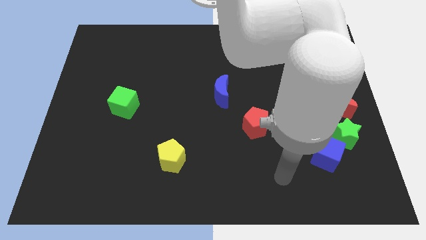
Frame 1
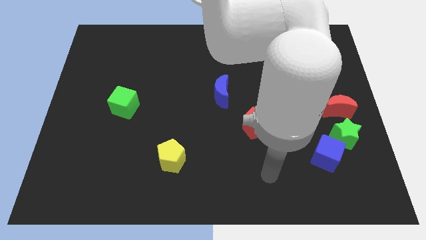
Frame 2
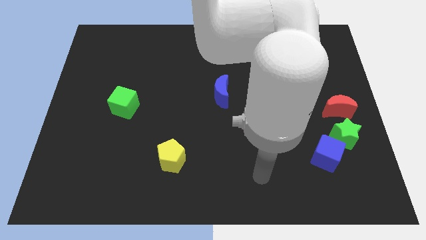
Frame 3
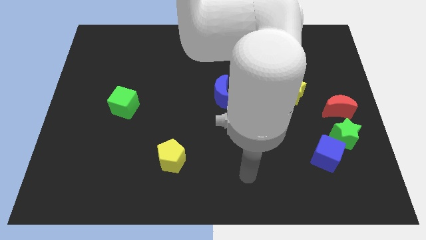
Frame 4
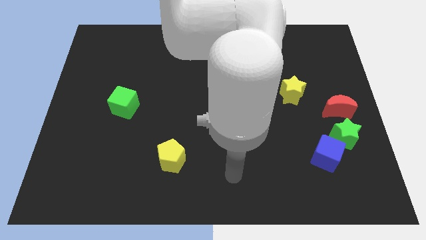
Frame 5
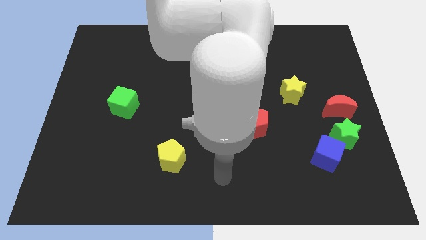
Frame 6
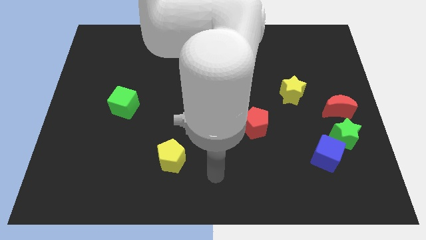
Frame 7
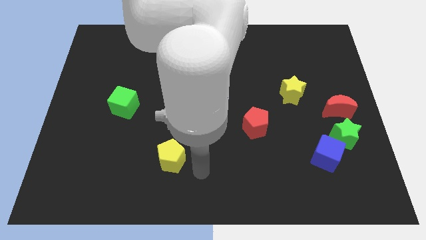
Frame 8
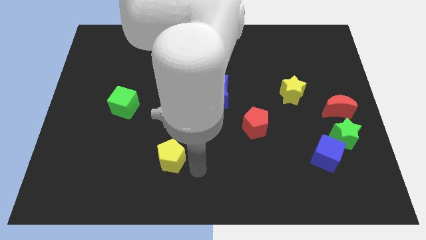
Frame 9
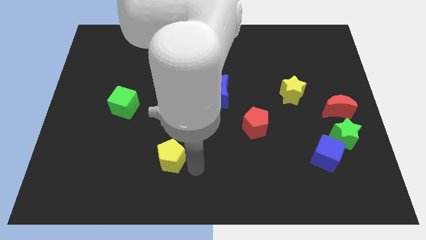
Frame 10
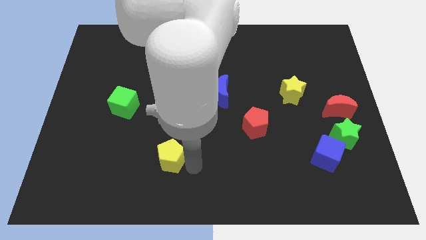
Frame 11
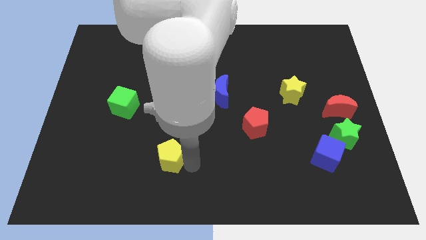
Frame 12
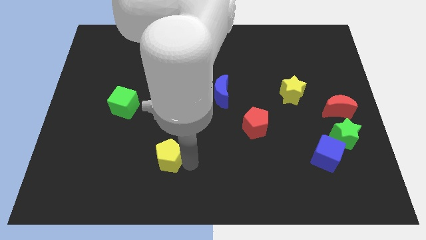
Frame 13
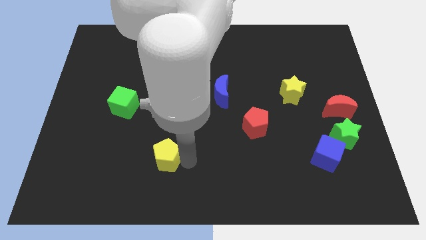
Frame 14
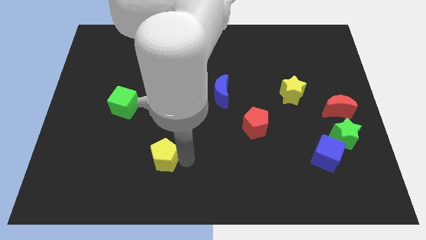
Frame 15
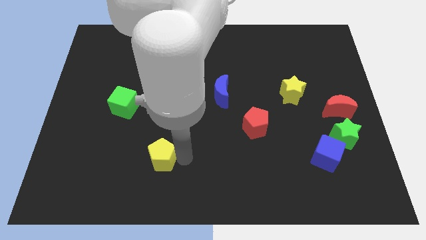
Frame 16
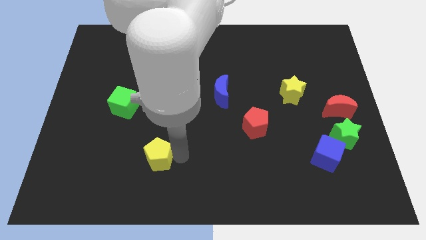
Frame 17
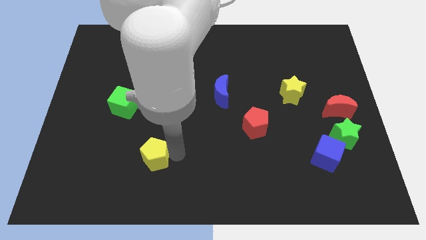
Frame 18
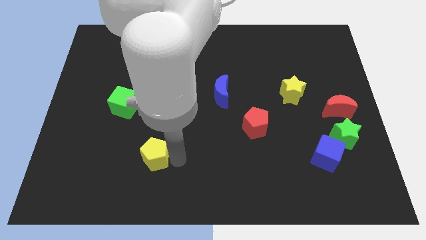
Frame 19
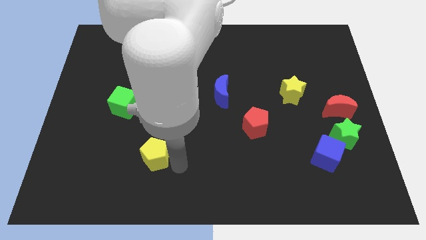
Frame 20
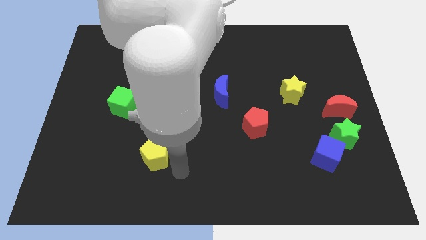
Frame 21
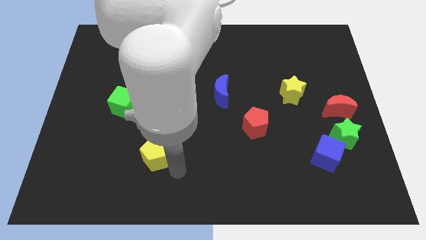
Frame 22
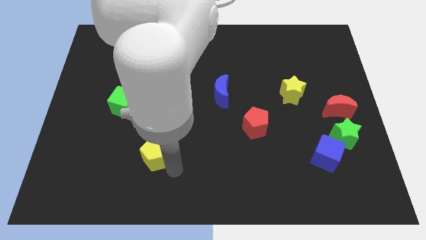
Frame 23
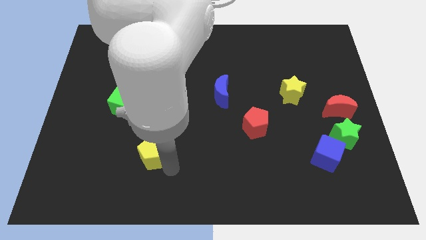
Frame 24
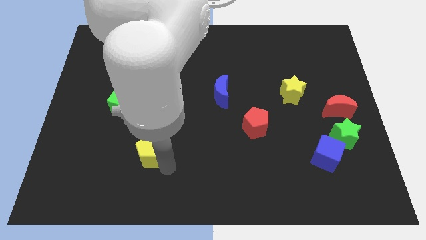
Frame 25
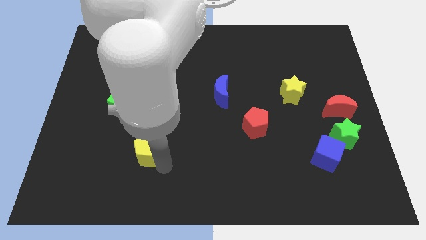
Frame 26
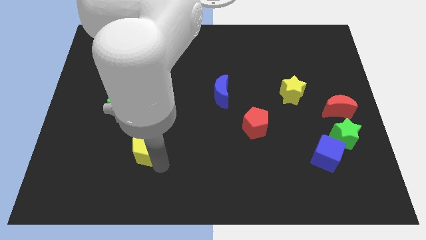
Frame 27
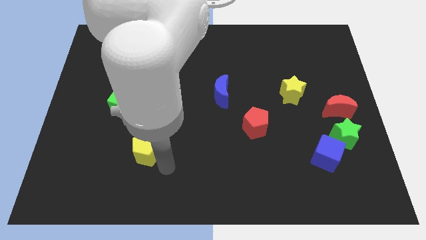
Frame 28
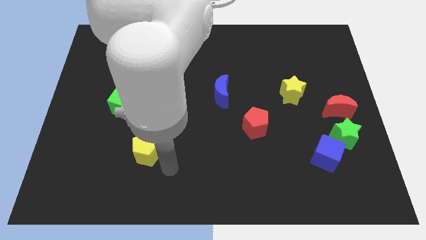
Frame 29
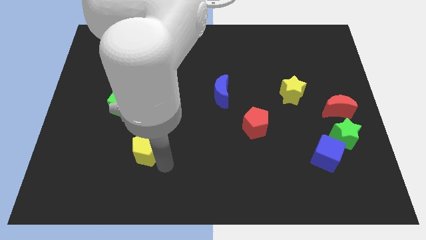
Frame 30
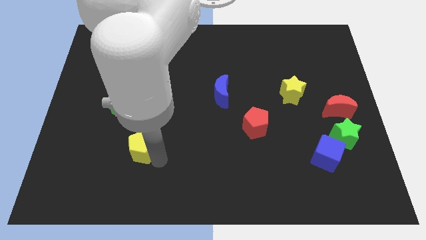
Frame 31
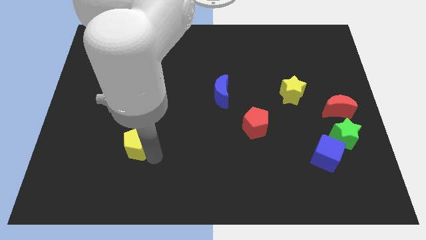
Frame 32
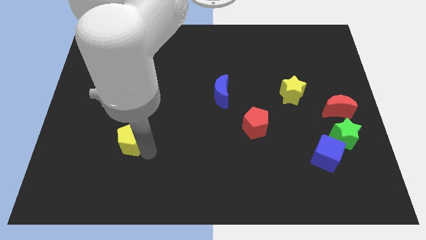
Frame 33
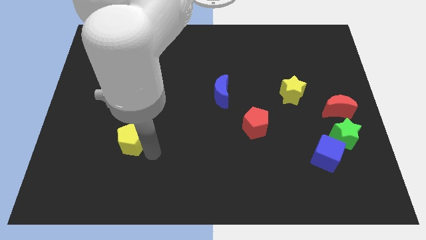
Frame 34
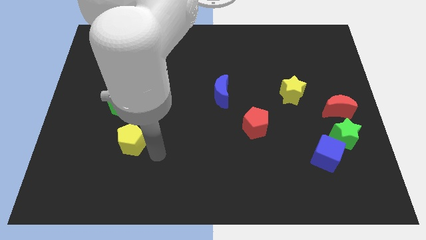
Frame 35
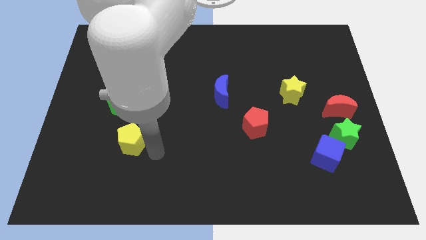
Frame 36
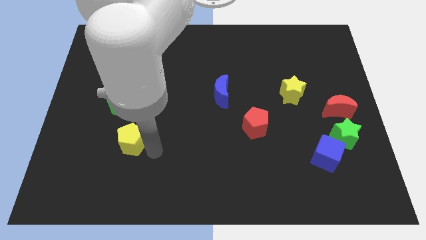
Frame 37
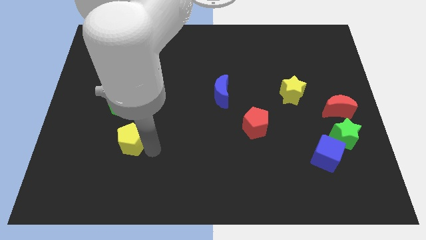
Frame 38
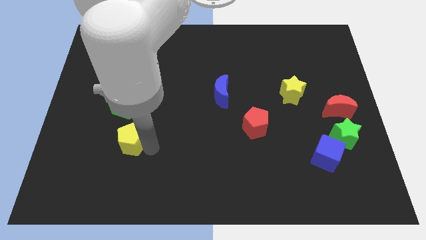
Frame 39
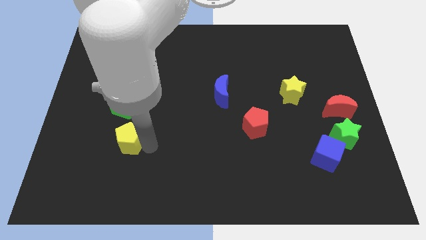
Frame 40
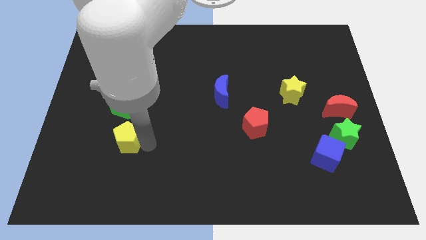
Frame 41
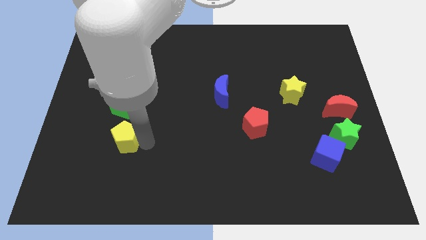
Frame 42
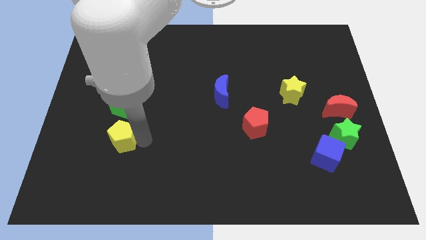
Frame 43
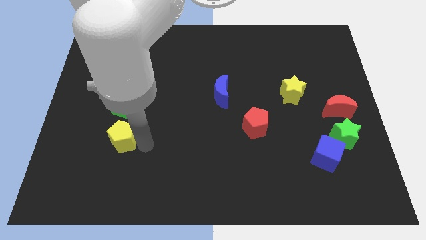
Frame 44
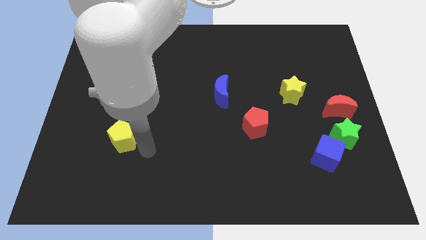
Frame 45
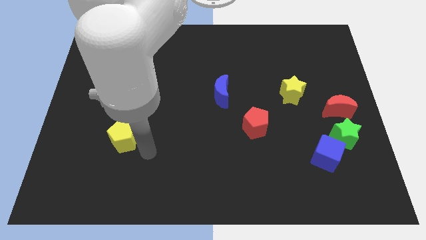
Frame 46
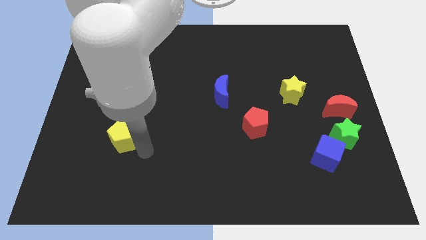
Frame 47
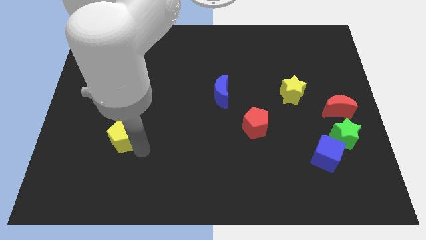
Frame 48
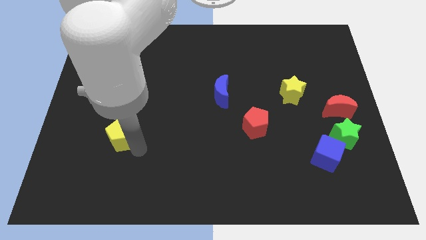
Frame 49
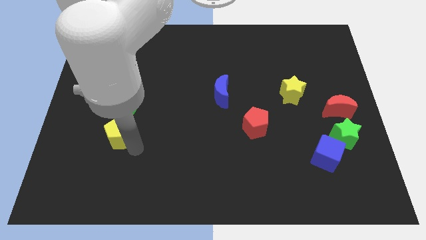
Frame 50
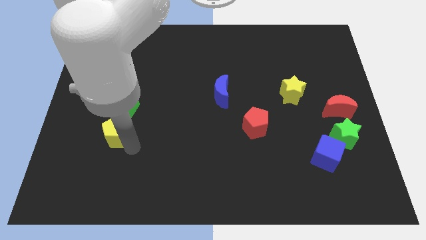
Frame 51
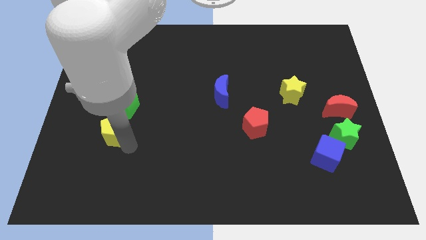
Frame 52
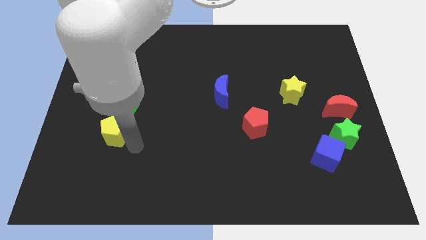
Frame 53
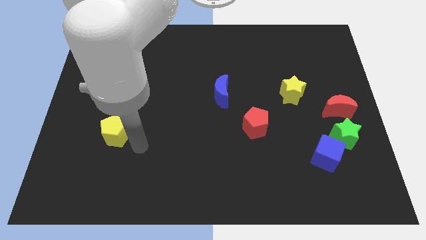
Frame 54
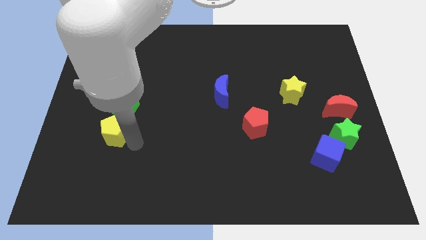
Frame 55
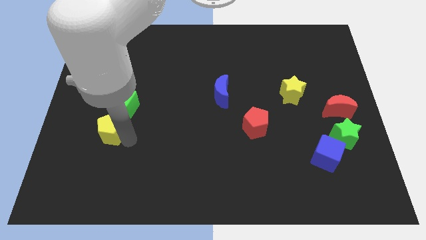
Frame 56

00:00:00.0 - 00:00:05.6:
move the yellow pentagon to the bottom left of the green cube
